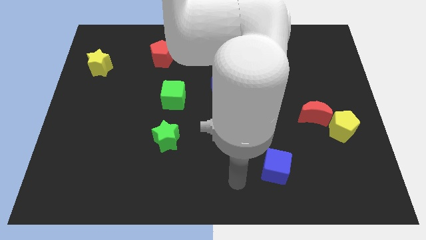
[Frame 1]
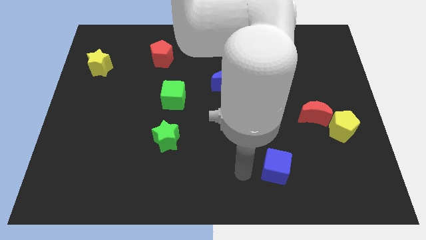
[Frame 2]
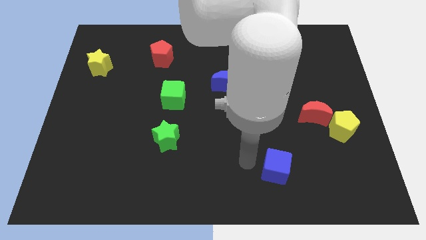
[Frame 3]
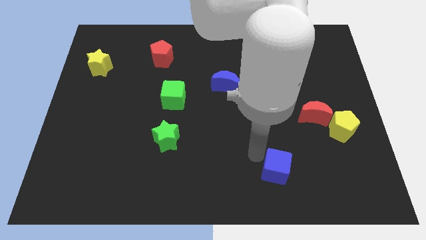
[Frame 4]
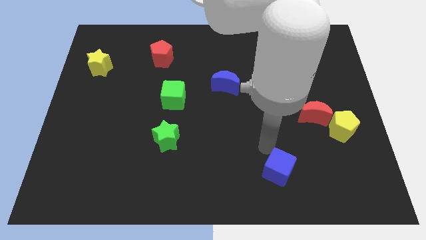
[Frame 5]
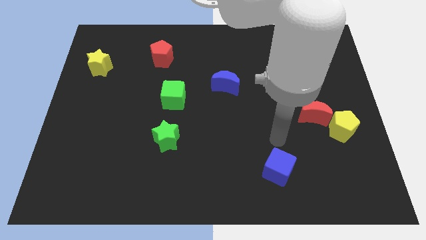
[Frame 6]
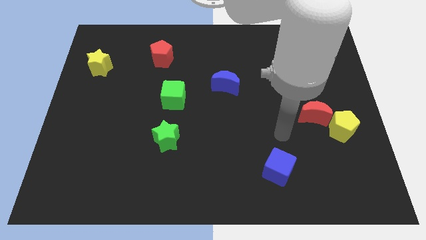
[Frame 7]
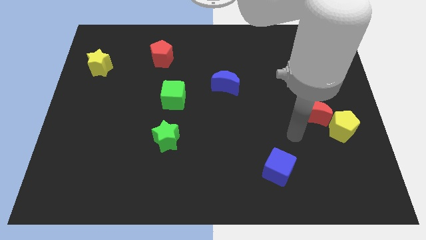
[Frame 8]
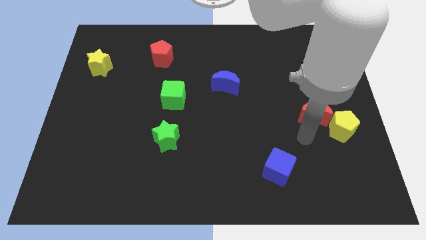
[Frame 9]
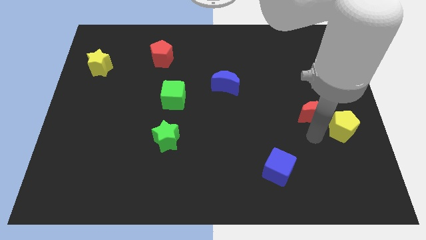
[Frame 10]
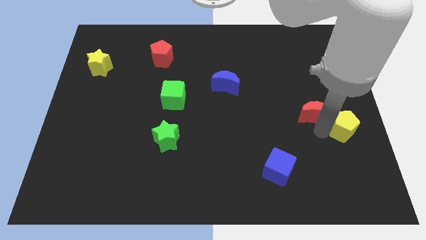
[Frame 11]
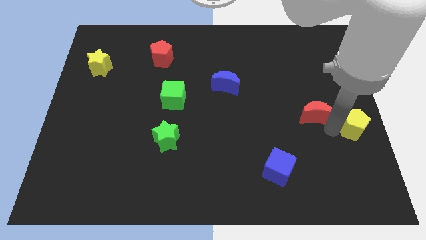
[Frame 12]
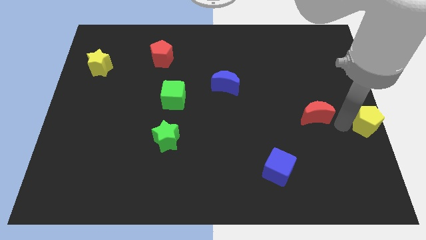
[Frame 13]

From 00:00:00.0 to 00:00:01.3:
pull the red moon apart from the yellow pentagon

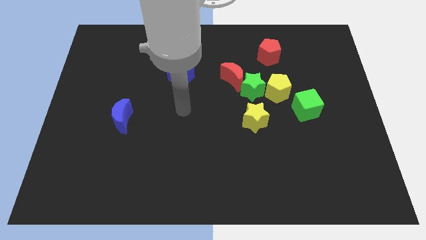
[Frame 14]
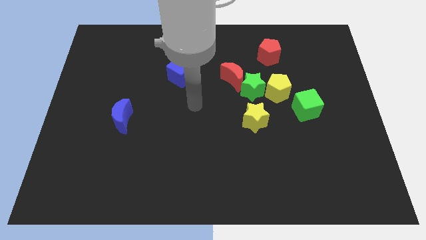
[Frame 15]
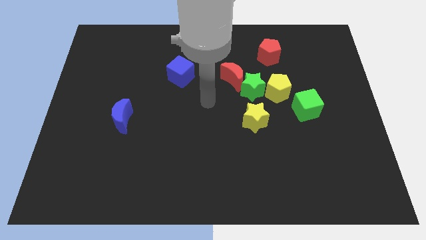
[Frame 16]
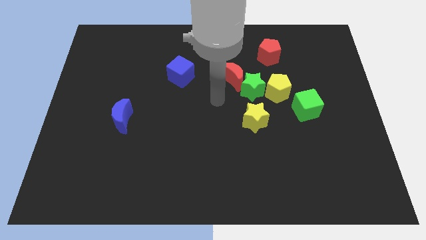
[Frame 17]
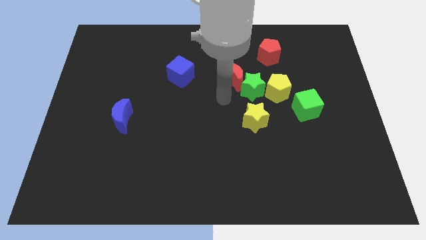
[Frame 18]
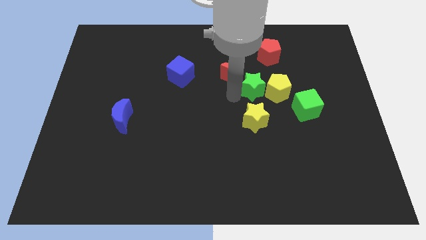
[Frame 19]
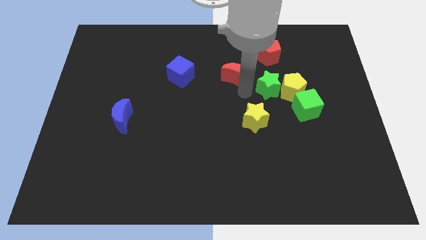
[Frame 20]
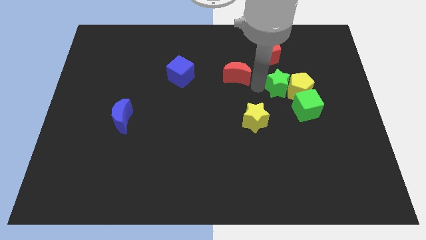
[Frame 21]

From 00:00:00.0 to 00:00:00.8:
pull the red moon apart from the green star

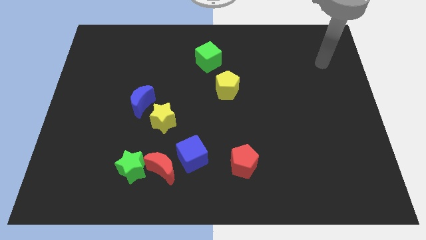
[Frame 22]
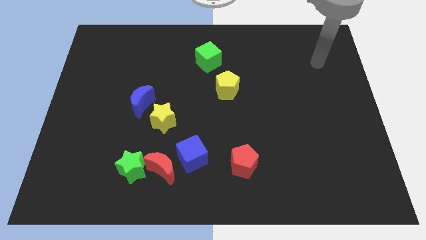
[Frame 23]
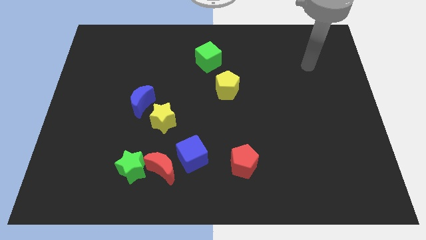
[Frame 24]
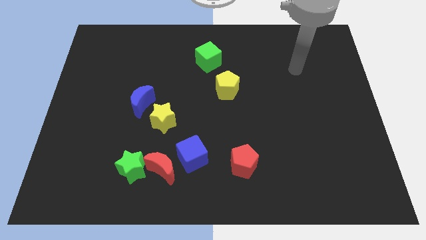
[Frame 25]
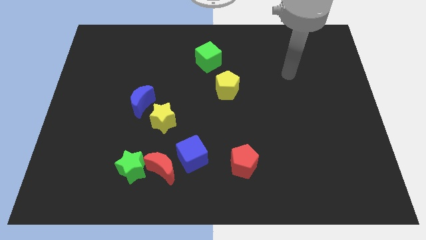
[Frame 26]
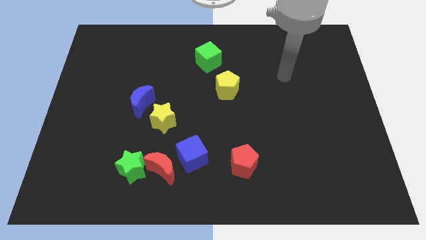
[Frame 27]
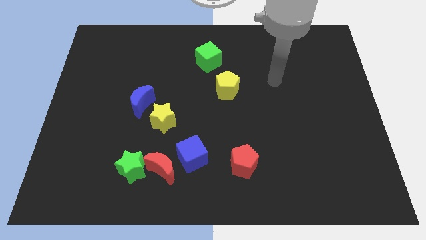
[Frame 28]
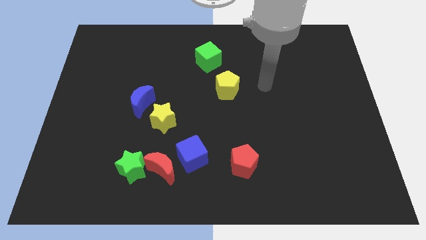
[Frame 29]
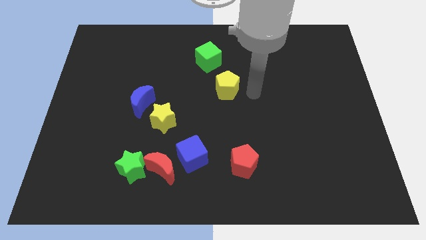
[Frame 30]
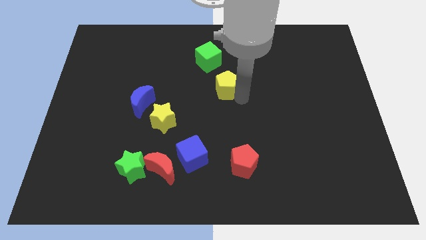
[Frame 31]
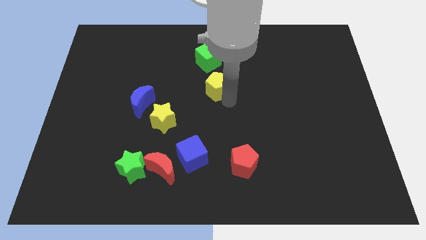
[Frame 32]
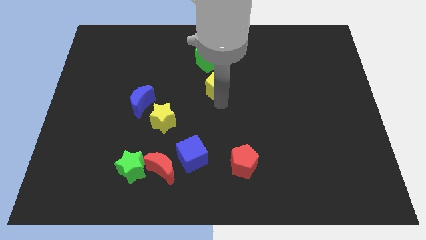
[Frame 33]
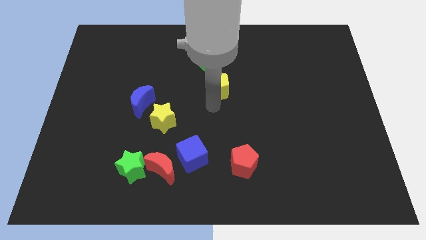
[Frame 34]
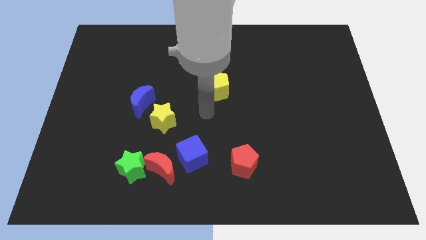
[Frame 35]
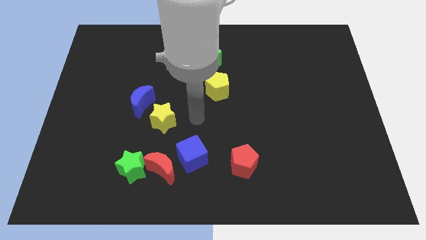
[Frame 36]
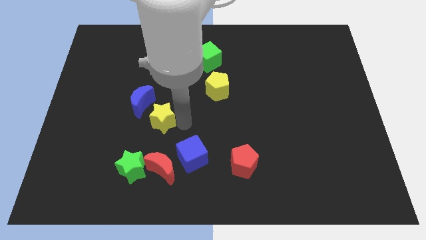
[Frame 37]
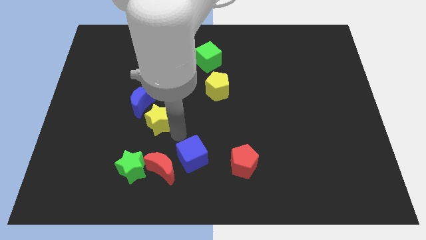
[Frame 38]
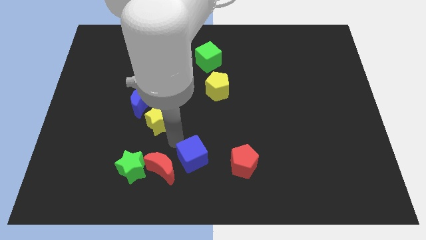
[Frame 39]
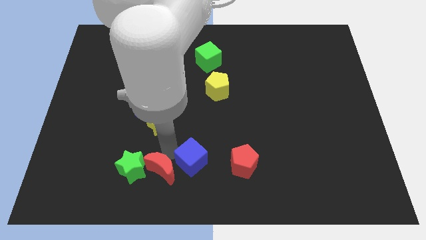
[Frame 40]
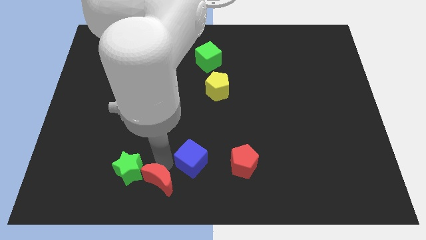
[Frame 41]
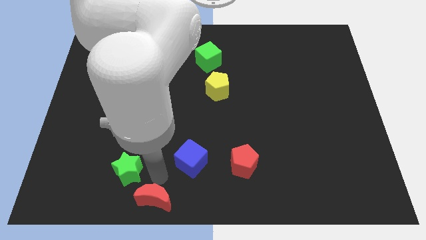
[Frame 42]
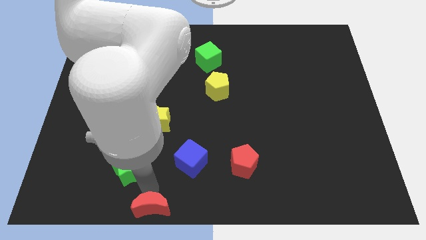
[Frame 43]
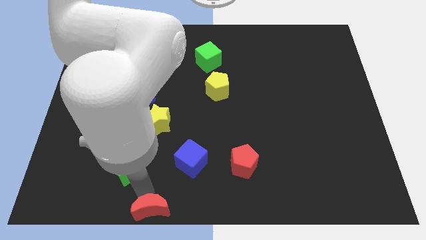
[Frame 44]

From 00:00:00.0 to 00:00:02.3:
pull the green star apart from the red moon

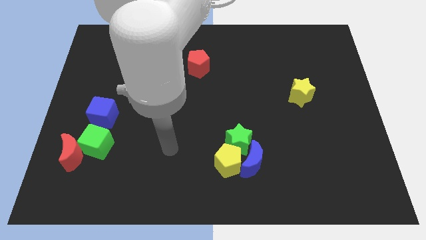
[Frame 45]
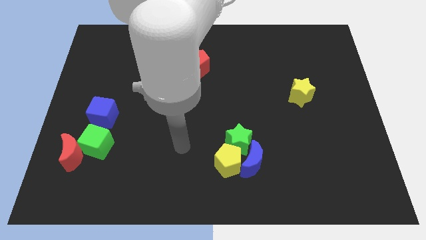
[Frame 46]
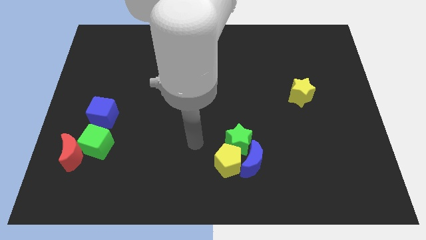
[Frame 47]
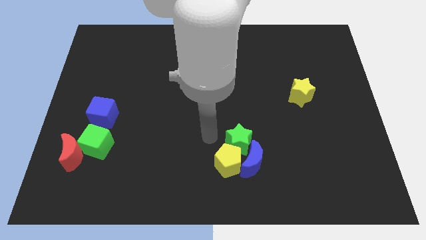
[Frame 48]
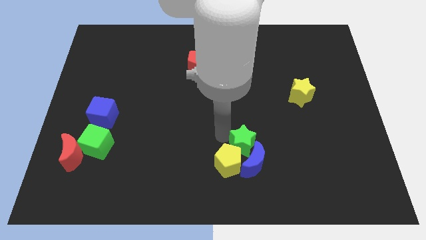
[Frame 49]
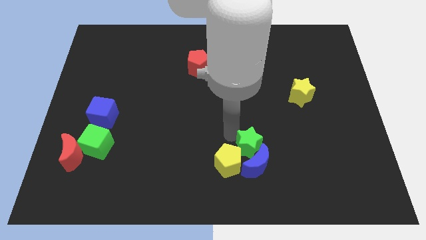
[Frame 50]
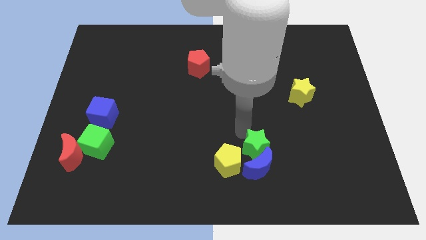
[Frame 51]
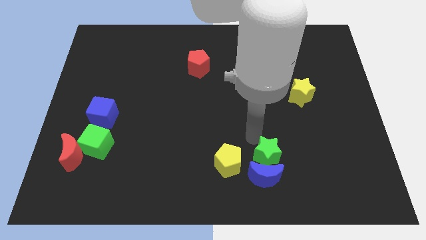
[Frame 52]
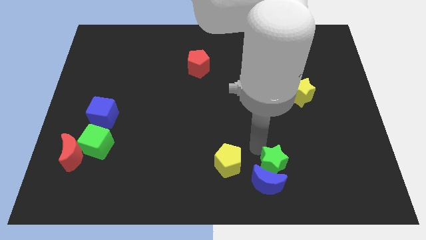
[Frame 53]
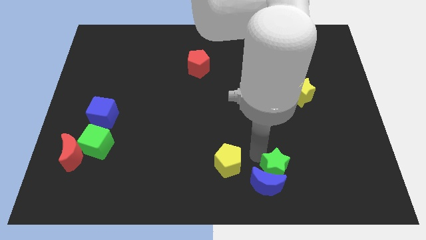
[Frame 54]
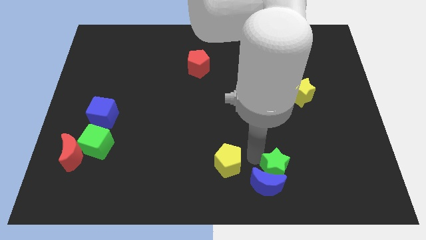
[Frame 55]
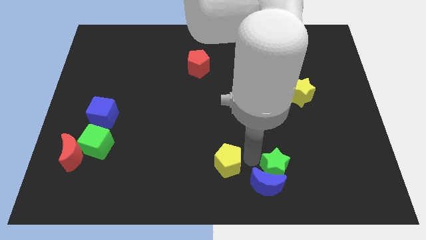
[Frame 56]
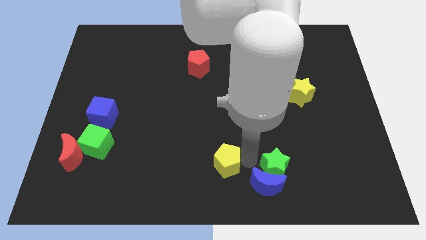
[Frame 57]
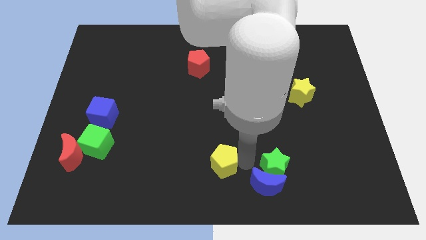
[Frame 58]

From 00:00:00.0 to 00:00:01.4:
separate the yellow pentagon from the green star and blue moon

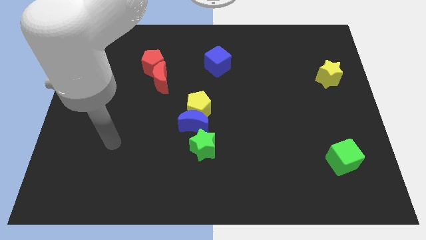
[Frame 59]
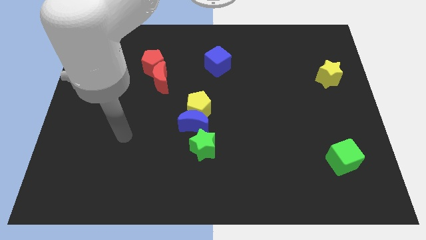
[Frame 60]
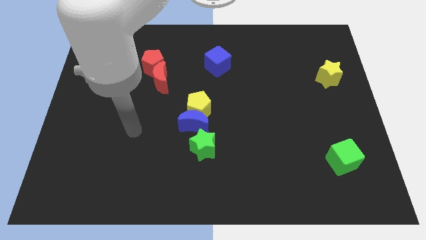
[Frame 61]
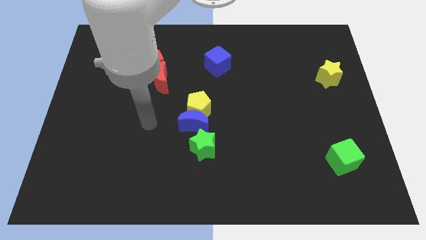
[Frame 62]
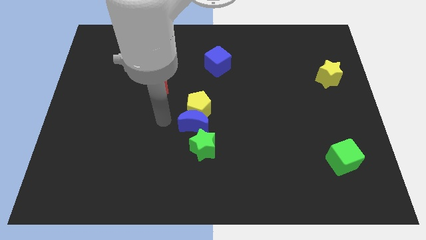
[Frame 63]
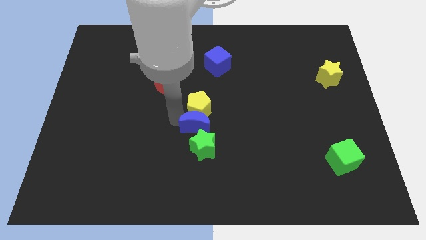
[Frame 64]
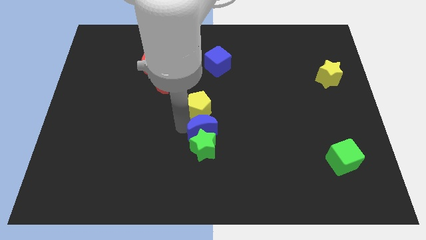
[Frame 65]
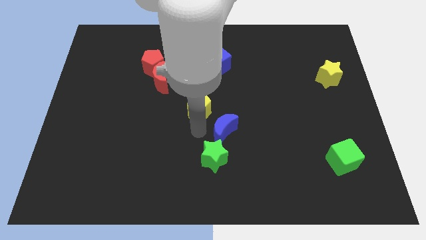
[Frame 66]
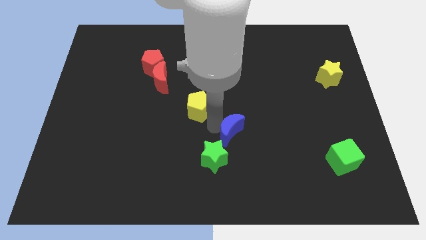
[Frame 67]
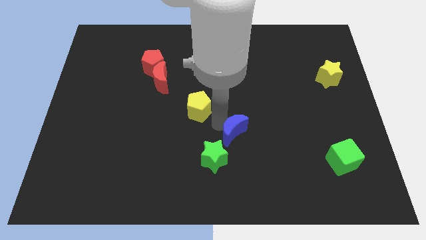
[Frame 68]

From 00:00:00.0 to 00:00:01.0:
separate the yellow pentagon from the blue moon

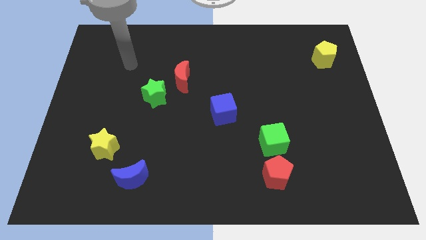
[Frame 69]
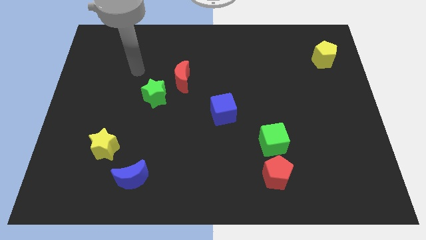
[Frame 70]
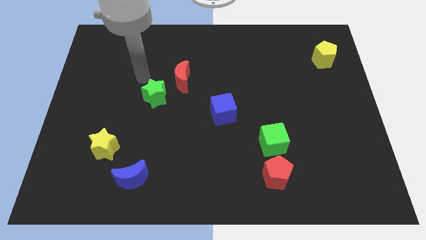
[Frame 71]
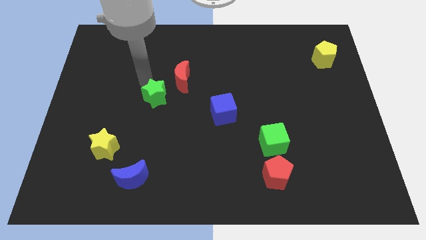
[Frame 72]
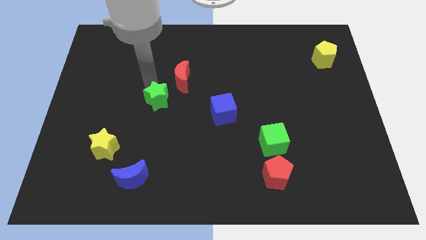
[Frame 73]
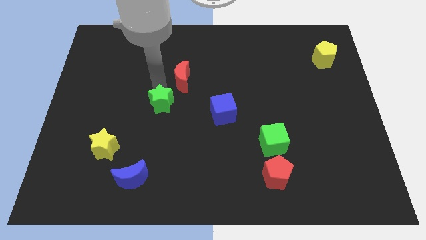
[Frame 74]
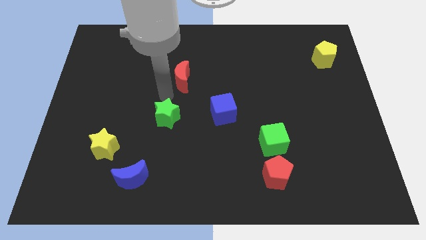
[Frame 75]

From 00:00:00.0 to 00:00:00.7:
move the red moon away from the green star

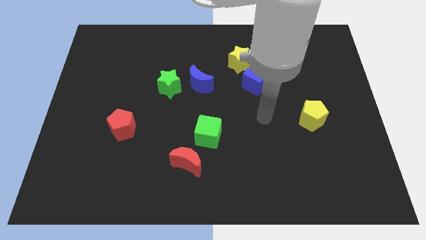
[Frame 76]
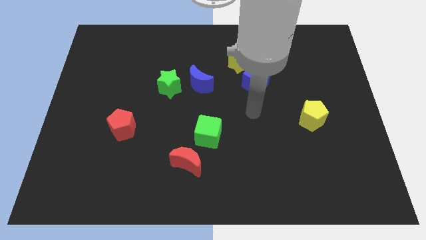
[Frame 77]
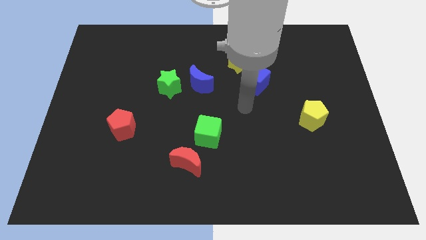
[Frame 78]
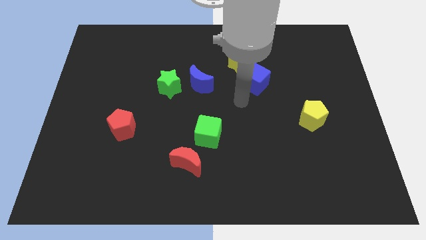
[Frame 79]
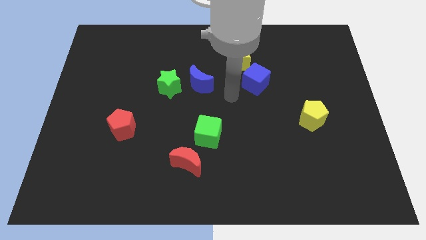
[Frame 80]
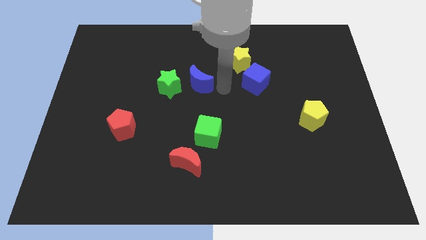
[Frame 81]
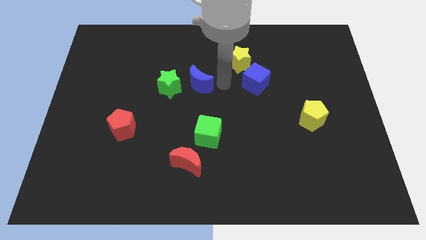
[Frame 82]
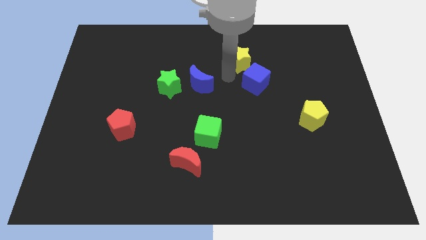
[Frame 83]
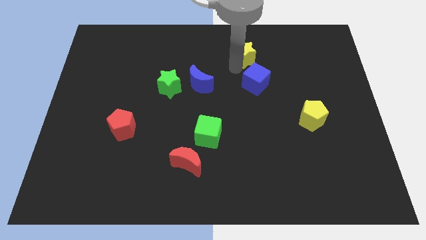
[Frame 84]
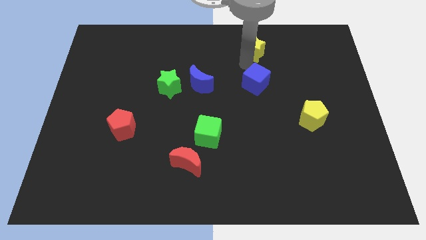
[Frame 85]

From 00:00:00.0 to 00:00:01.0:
pull the blue cube apart from the yellow star

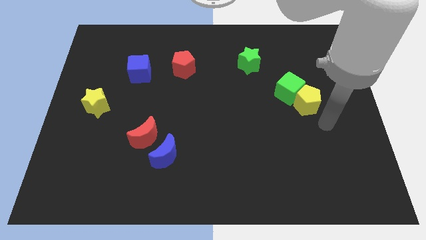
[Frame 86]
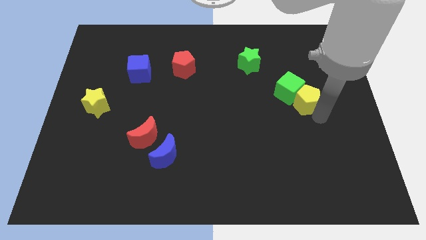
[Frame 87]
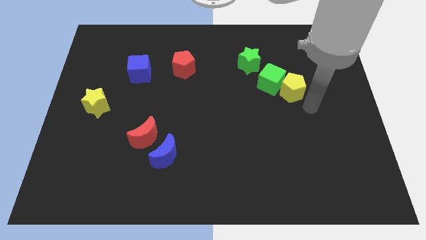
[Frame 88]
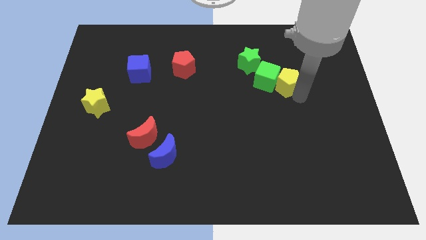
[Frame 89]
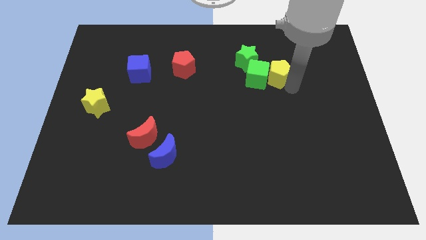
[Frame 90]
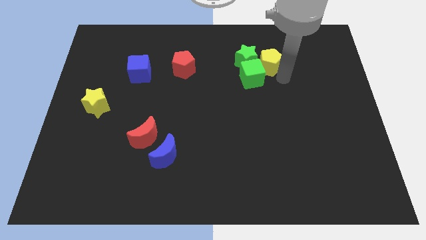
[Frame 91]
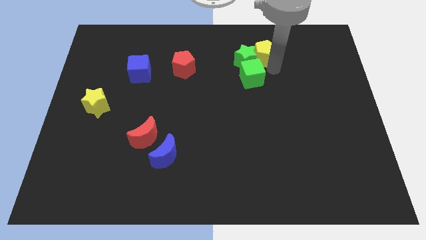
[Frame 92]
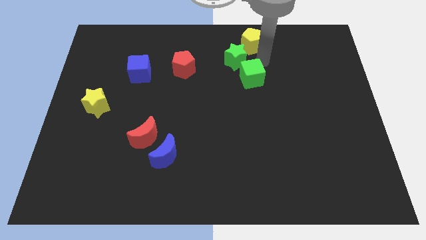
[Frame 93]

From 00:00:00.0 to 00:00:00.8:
move the green cube away from the yellow pentagon
